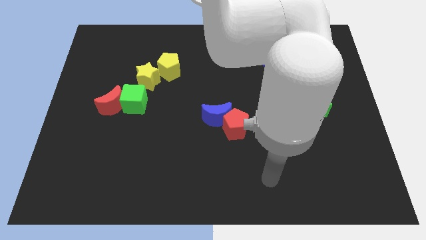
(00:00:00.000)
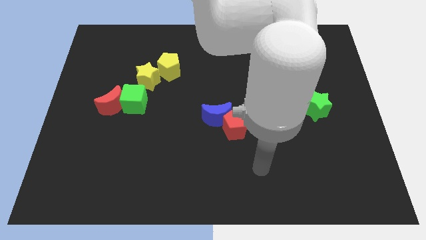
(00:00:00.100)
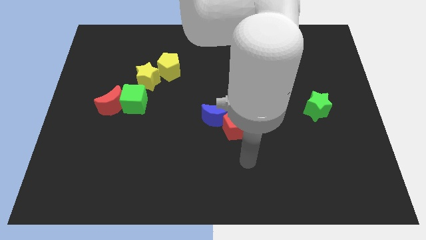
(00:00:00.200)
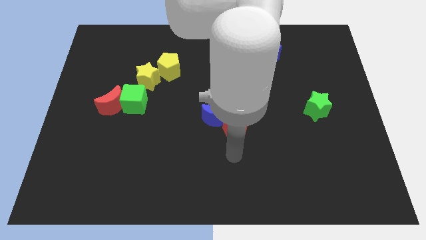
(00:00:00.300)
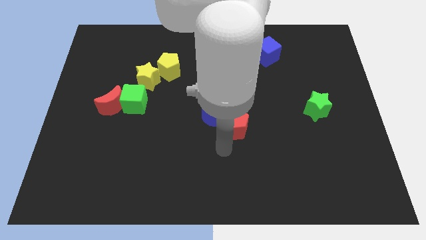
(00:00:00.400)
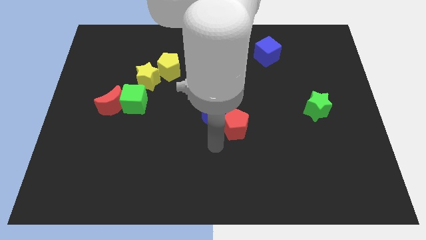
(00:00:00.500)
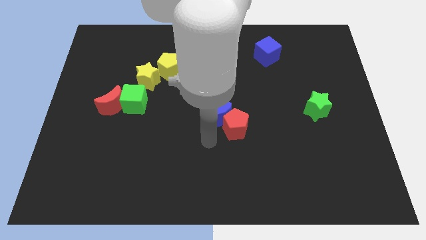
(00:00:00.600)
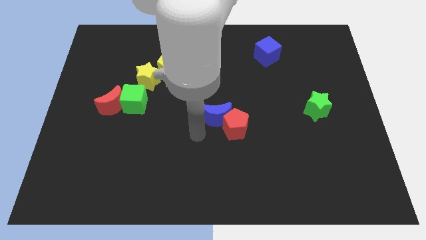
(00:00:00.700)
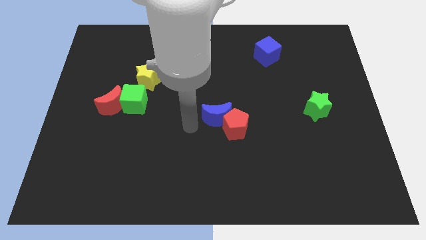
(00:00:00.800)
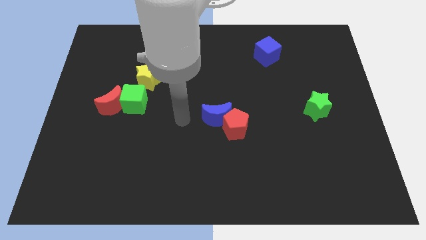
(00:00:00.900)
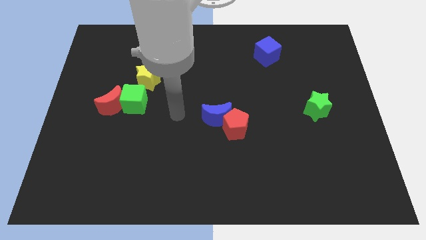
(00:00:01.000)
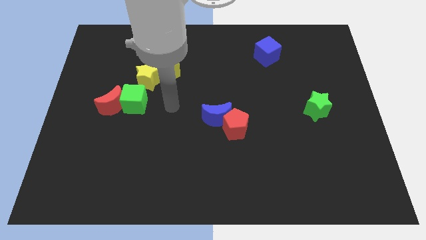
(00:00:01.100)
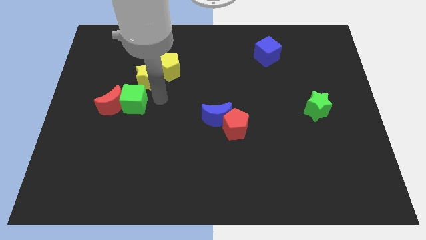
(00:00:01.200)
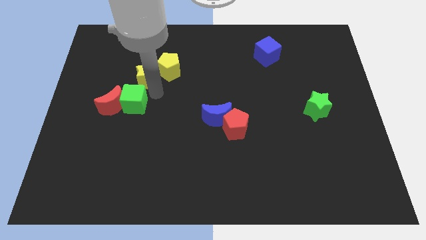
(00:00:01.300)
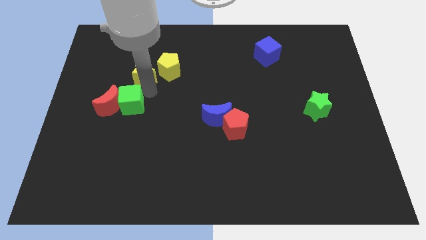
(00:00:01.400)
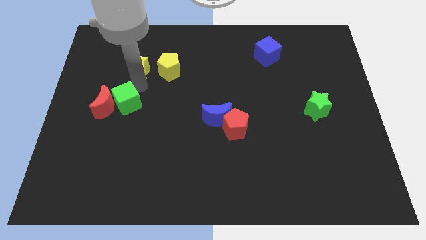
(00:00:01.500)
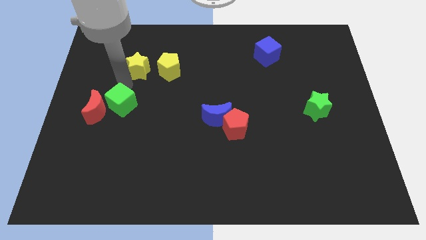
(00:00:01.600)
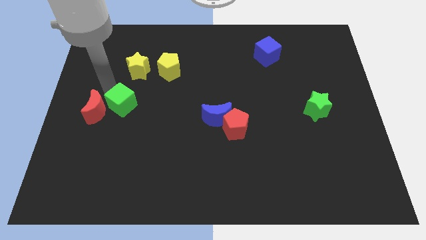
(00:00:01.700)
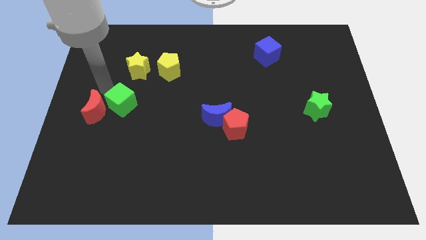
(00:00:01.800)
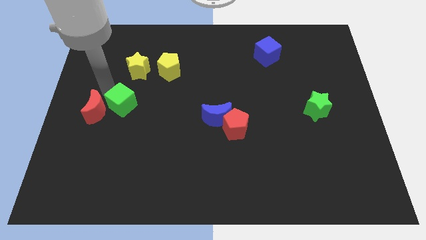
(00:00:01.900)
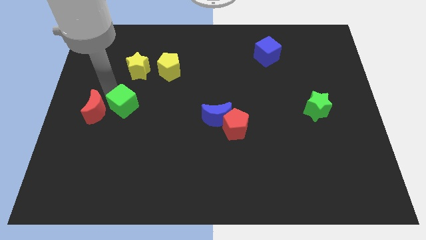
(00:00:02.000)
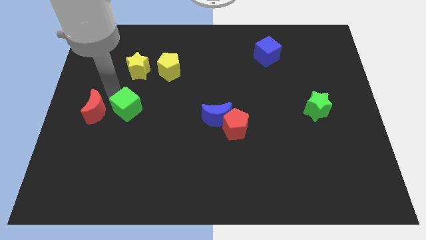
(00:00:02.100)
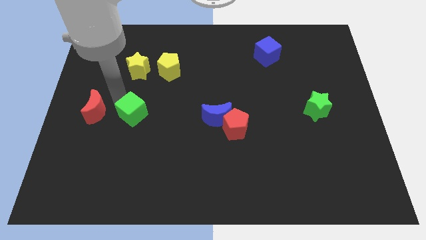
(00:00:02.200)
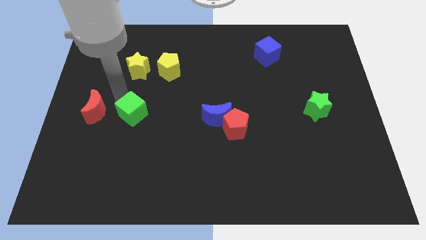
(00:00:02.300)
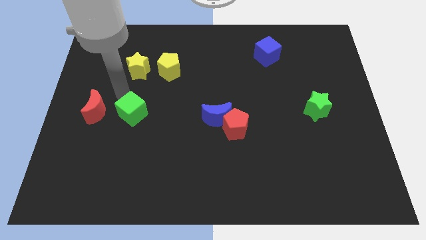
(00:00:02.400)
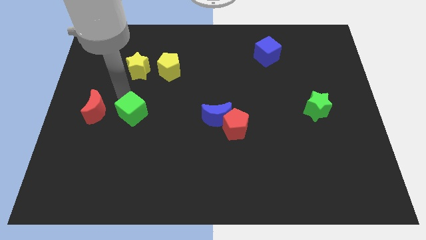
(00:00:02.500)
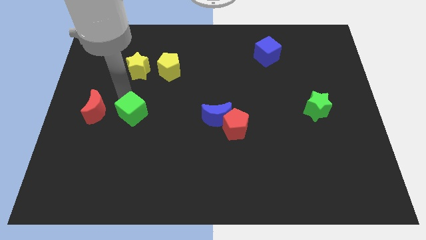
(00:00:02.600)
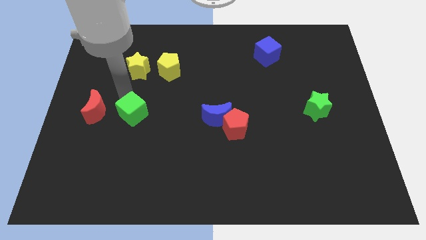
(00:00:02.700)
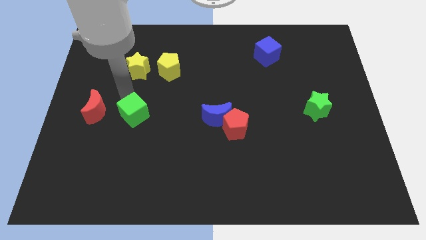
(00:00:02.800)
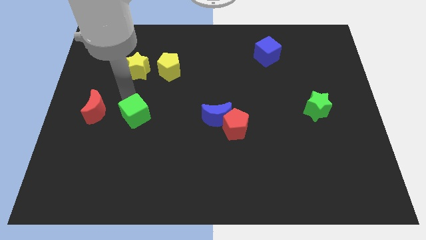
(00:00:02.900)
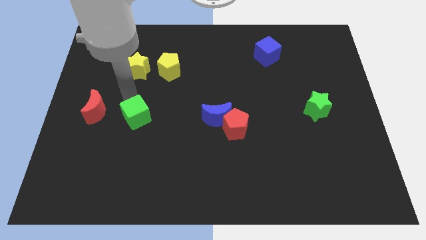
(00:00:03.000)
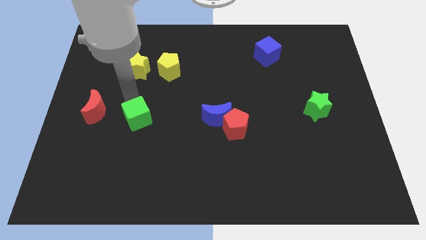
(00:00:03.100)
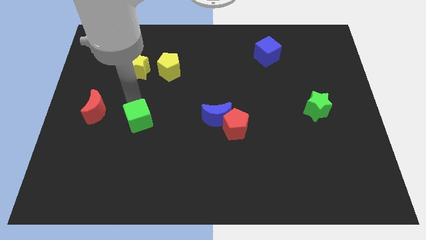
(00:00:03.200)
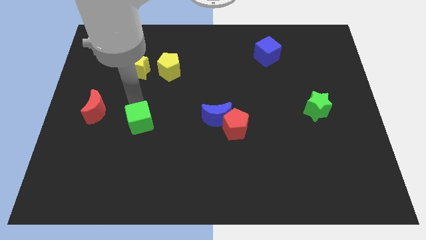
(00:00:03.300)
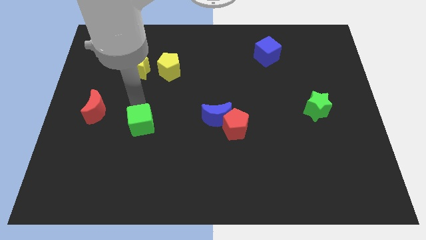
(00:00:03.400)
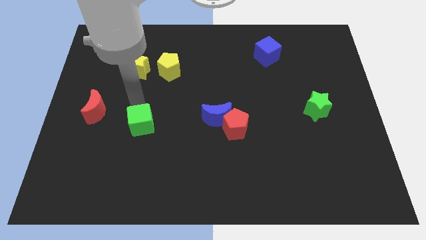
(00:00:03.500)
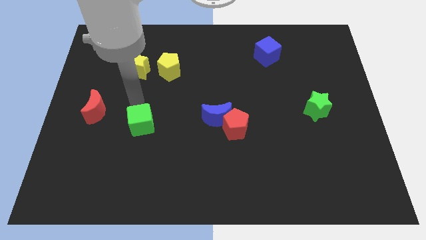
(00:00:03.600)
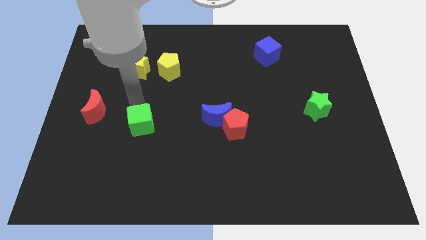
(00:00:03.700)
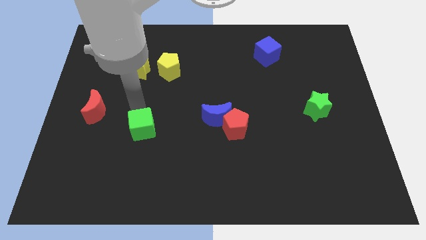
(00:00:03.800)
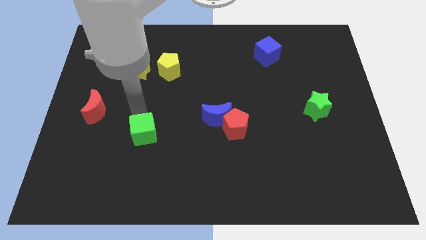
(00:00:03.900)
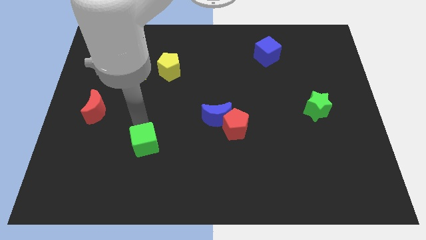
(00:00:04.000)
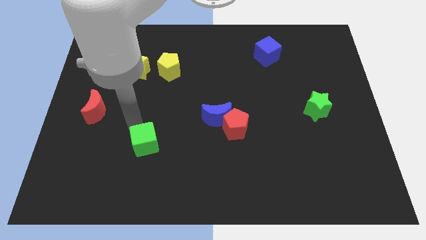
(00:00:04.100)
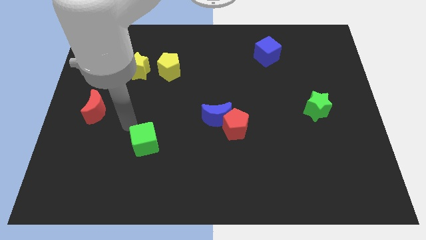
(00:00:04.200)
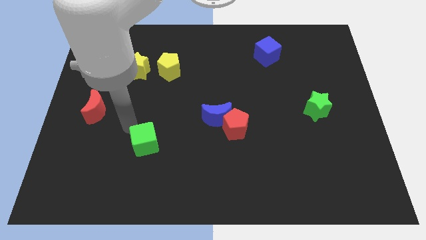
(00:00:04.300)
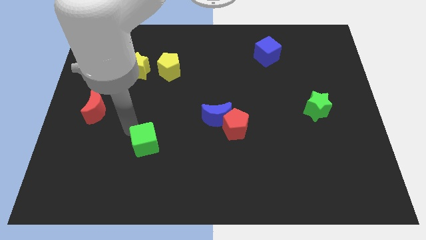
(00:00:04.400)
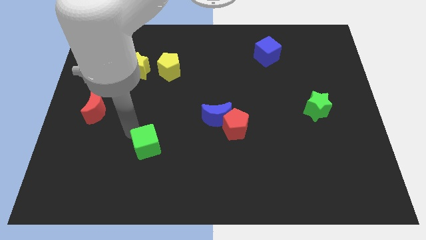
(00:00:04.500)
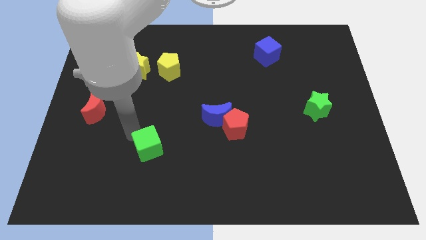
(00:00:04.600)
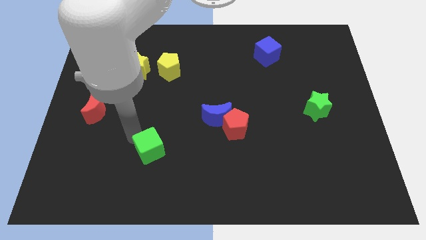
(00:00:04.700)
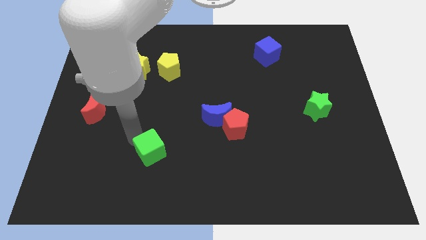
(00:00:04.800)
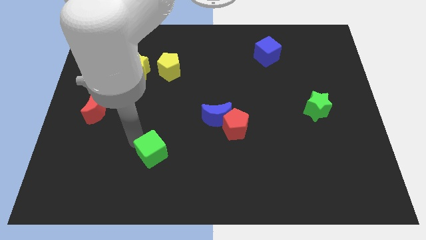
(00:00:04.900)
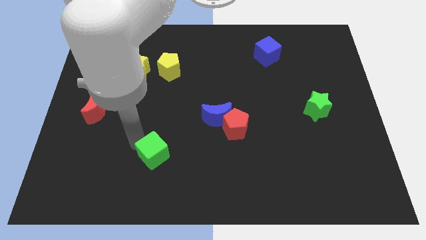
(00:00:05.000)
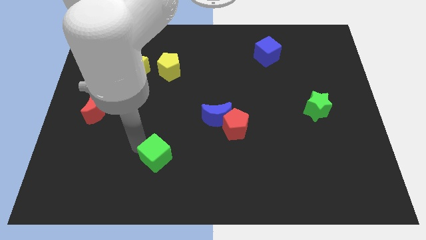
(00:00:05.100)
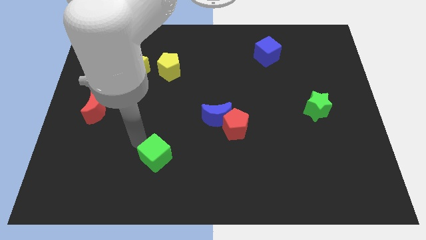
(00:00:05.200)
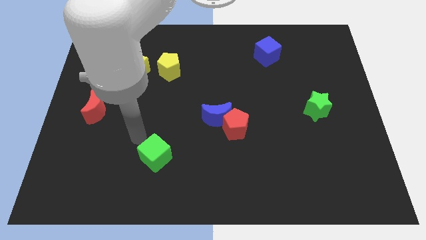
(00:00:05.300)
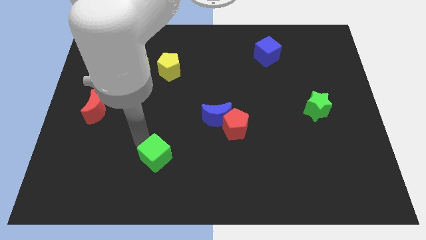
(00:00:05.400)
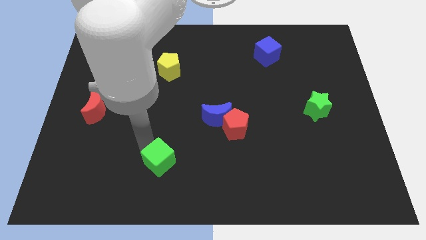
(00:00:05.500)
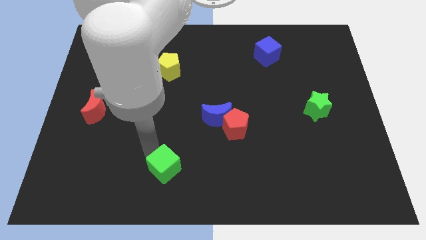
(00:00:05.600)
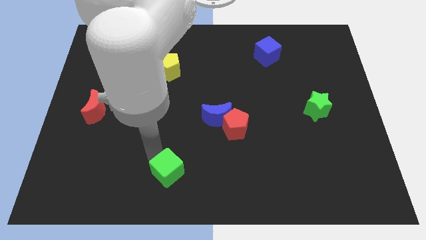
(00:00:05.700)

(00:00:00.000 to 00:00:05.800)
push the green cube to the bottom

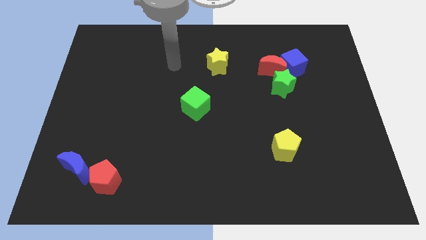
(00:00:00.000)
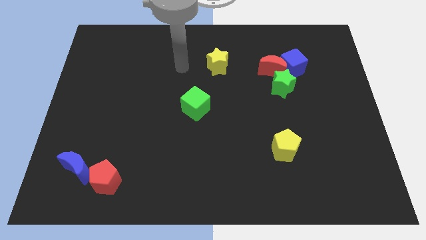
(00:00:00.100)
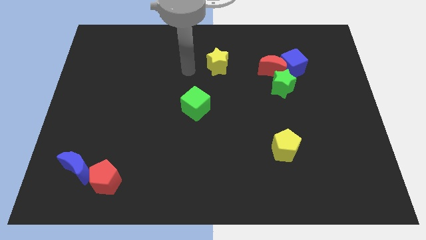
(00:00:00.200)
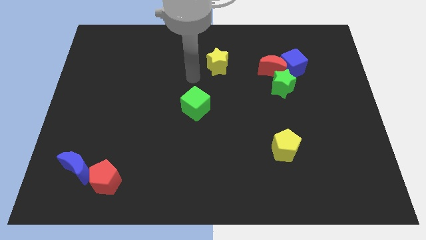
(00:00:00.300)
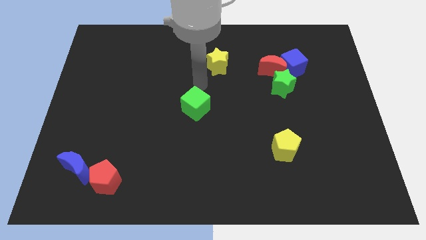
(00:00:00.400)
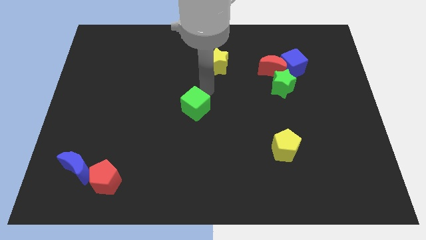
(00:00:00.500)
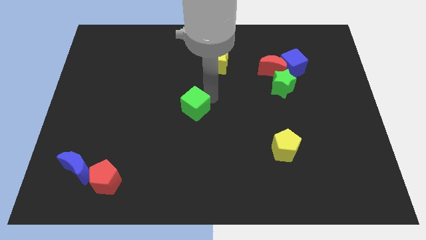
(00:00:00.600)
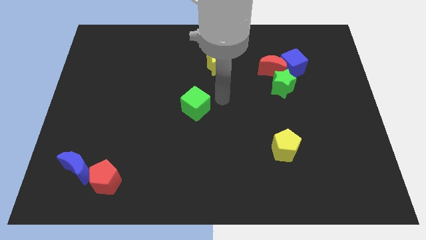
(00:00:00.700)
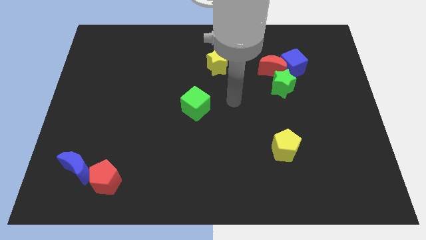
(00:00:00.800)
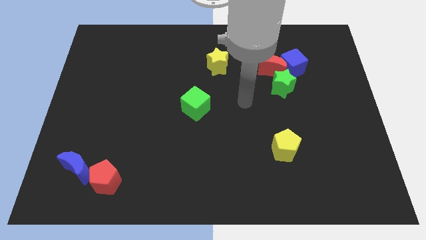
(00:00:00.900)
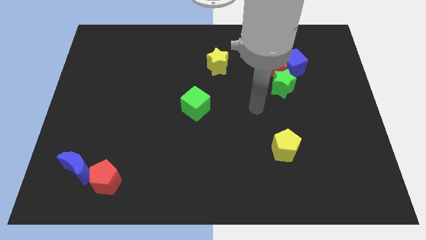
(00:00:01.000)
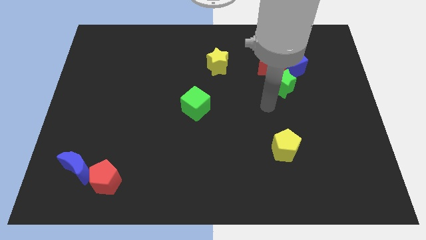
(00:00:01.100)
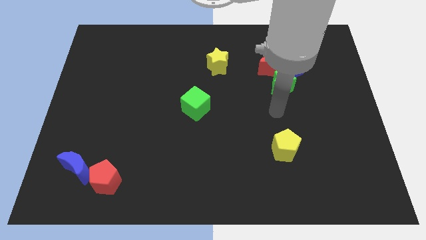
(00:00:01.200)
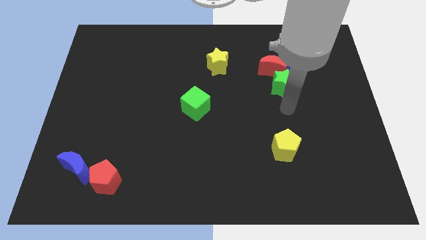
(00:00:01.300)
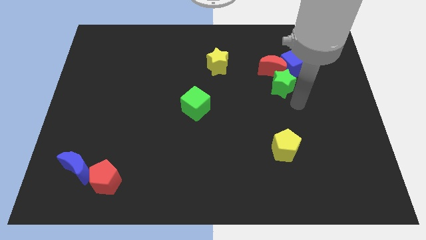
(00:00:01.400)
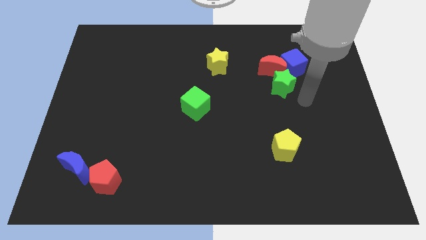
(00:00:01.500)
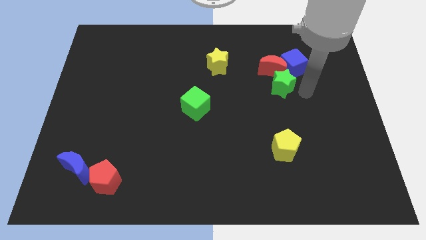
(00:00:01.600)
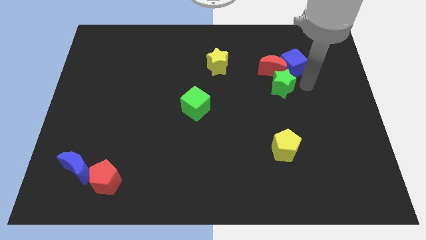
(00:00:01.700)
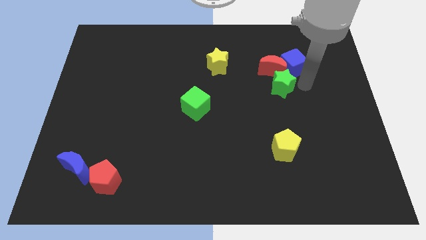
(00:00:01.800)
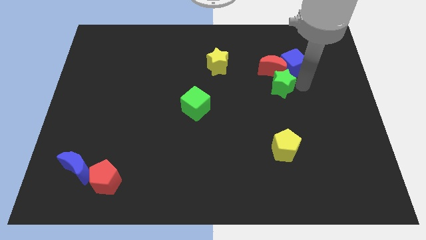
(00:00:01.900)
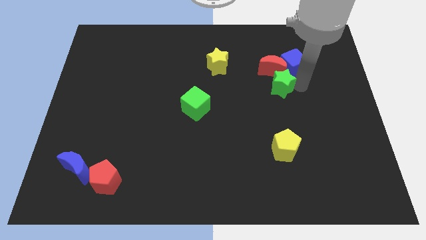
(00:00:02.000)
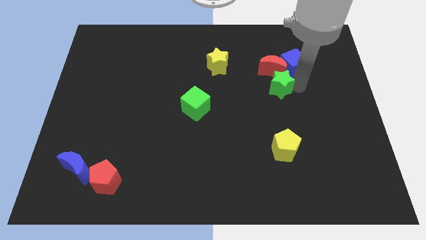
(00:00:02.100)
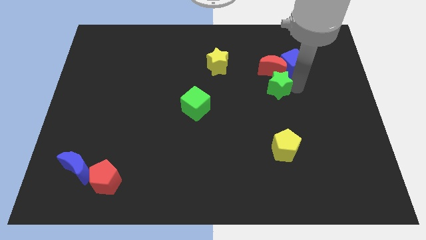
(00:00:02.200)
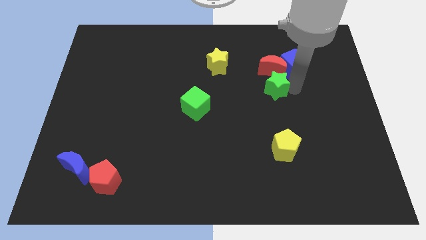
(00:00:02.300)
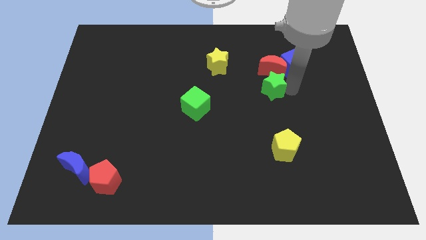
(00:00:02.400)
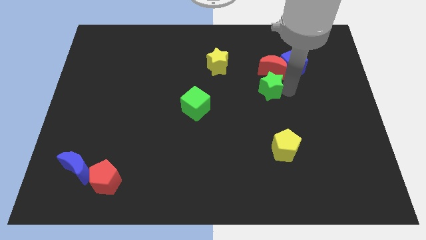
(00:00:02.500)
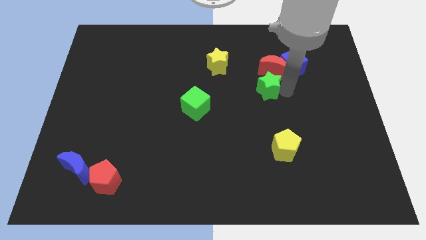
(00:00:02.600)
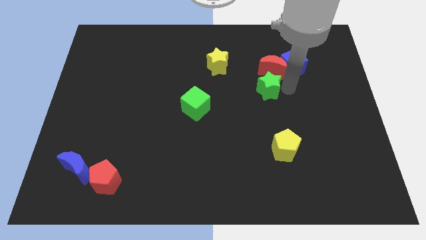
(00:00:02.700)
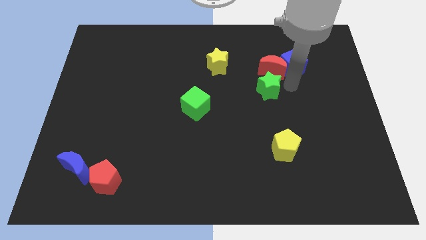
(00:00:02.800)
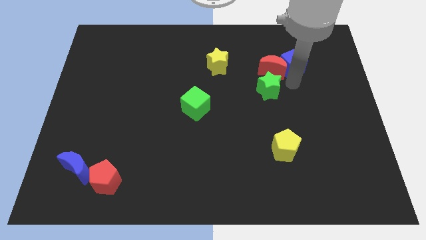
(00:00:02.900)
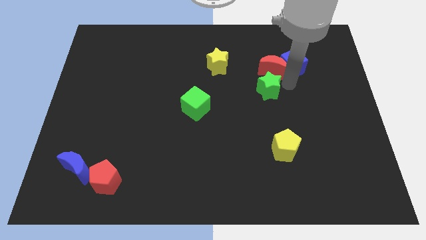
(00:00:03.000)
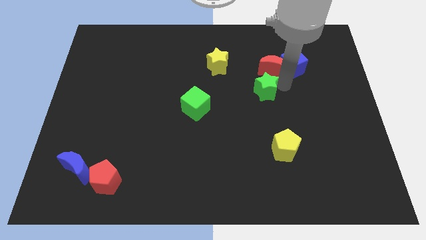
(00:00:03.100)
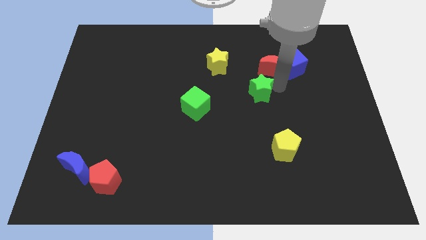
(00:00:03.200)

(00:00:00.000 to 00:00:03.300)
push the green star to the center
